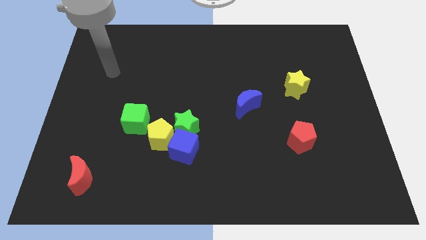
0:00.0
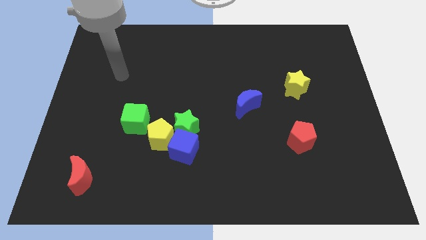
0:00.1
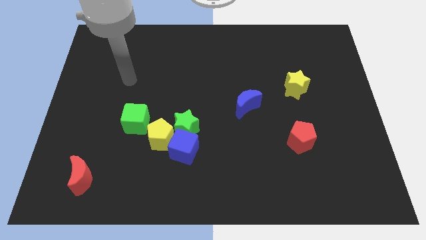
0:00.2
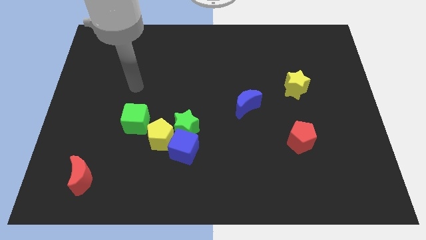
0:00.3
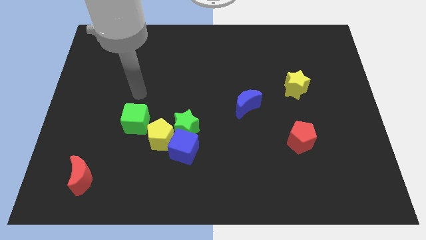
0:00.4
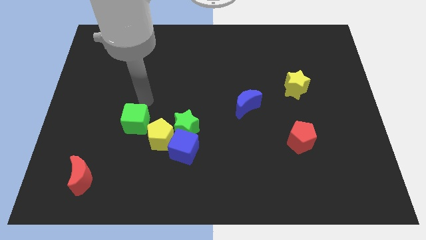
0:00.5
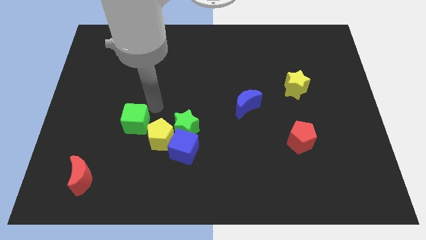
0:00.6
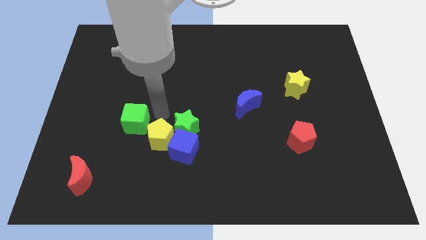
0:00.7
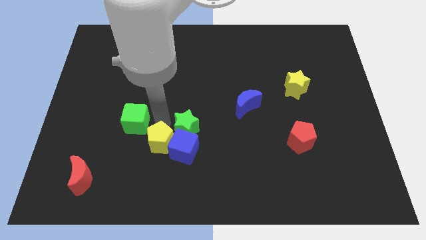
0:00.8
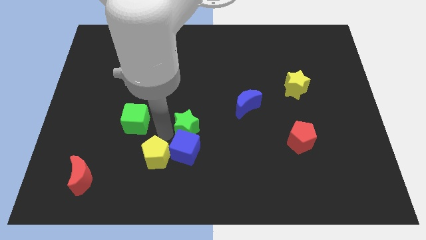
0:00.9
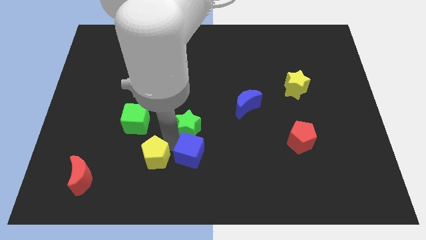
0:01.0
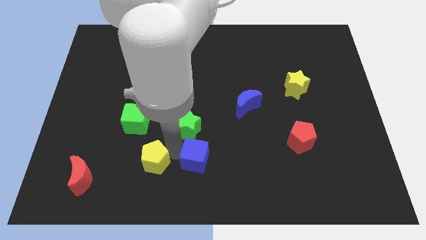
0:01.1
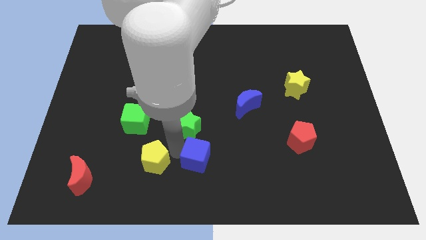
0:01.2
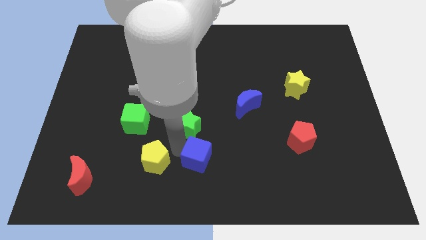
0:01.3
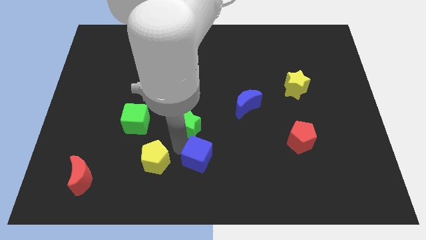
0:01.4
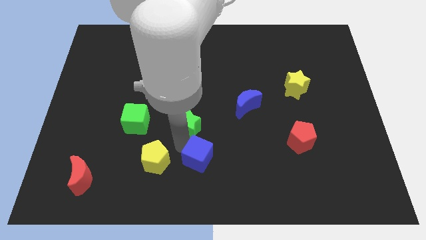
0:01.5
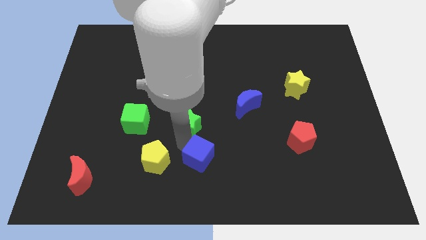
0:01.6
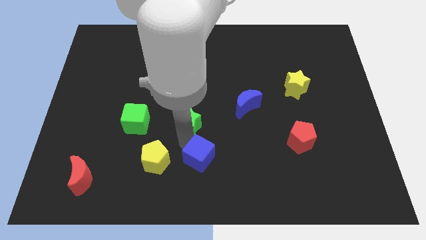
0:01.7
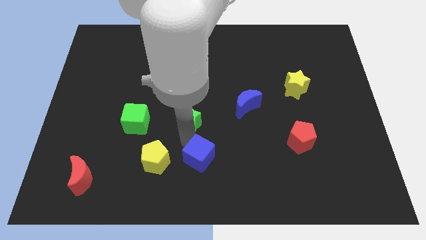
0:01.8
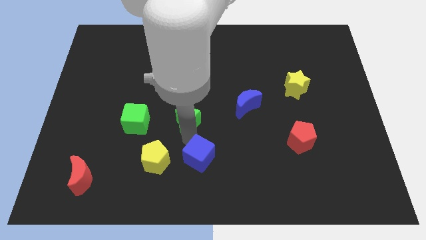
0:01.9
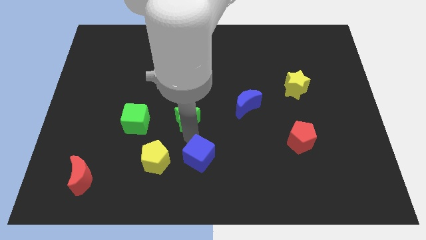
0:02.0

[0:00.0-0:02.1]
separate the green star from the blue cube and yellow pentagon

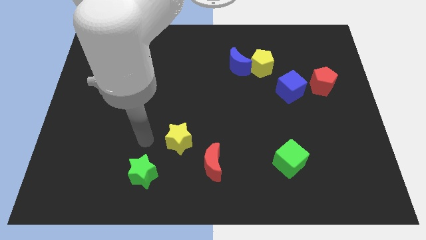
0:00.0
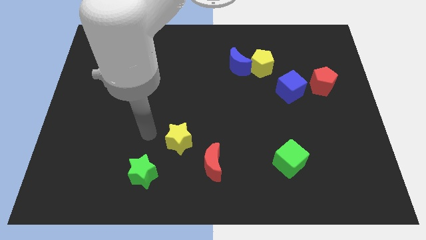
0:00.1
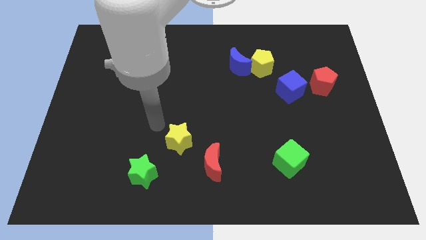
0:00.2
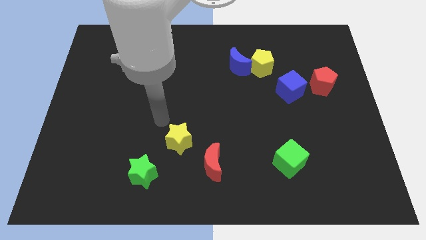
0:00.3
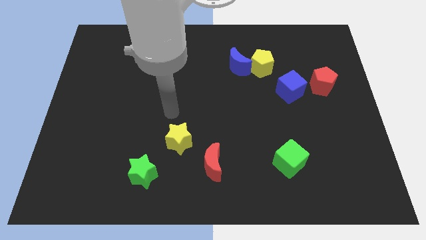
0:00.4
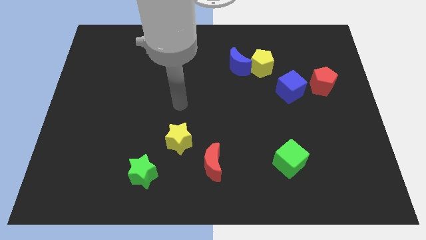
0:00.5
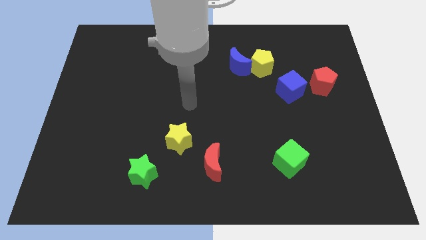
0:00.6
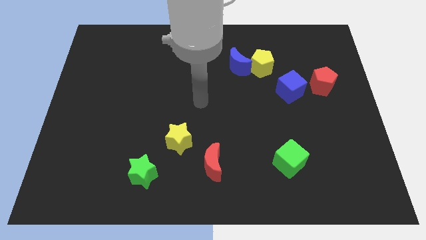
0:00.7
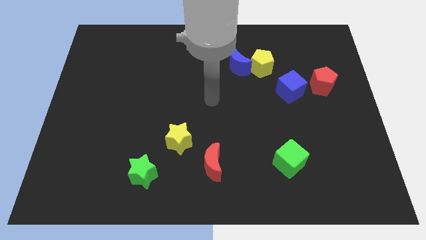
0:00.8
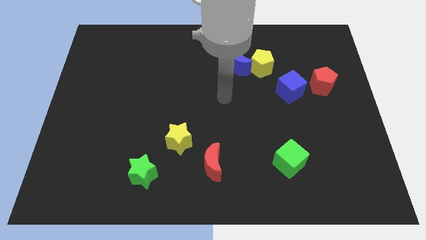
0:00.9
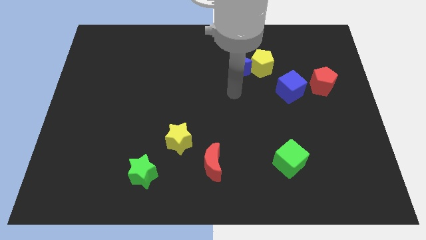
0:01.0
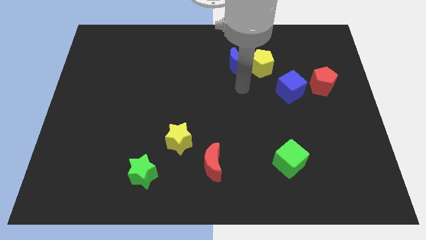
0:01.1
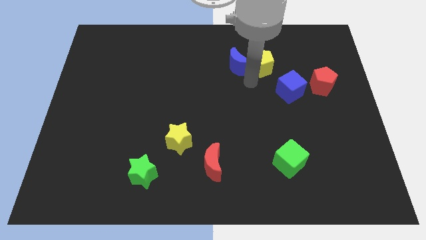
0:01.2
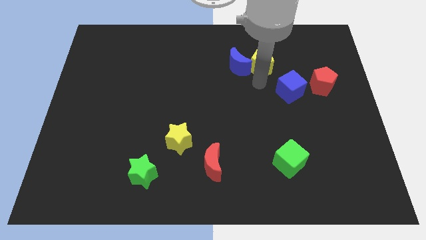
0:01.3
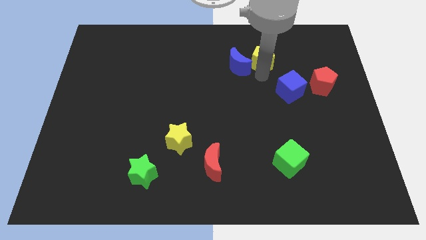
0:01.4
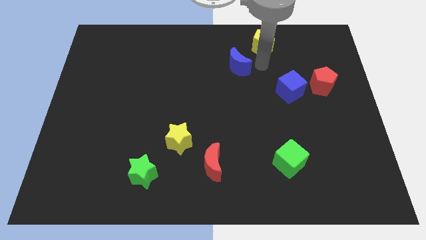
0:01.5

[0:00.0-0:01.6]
pull the blue moon apart from the yellow pentagon

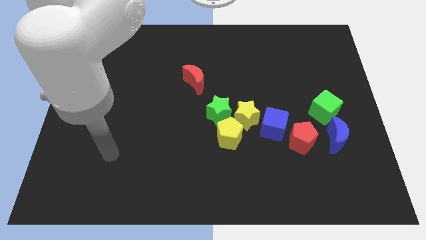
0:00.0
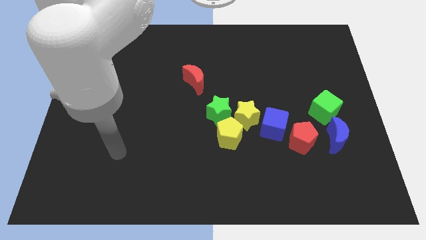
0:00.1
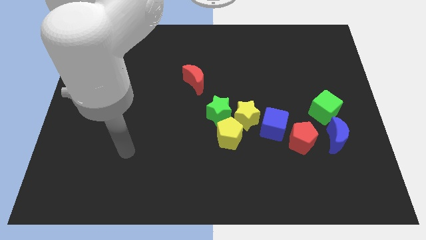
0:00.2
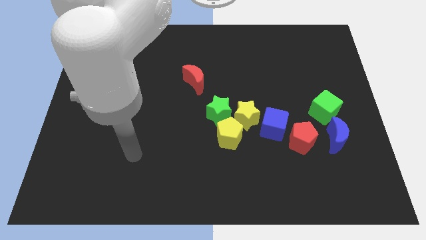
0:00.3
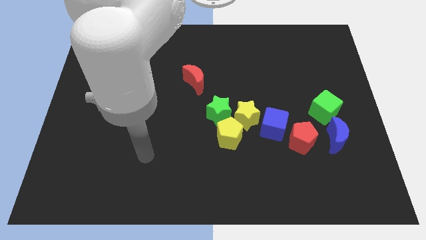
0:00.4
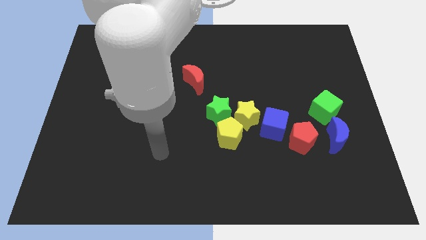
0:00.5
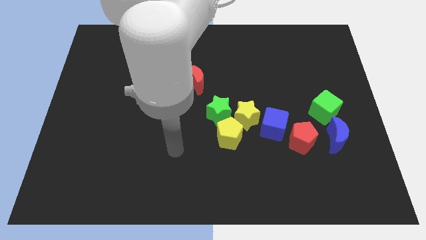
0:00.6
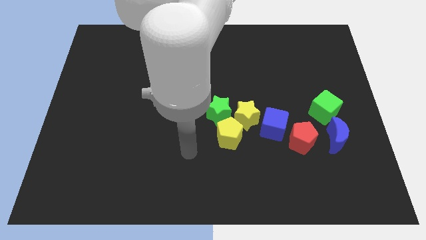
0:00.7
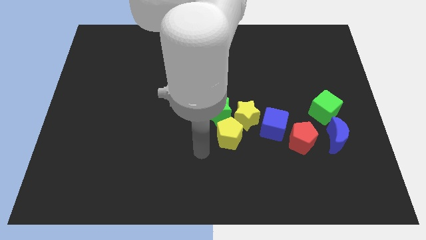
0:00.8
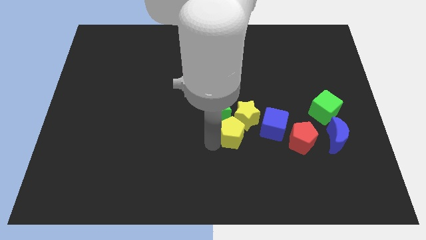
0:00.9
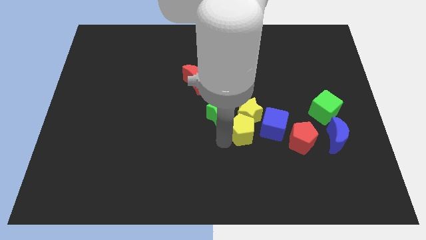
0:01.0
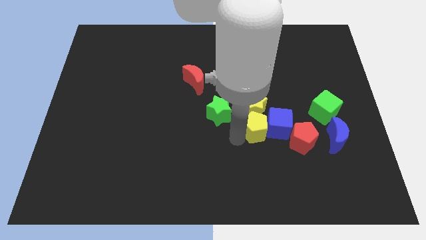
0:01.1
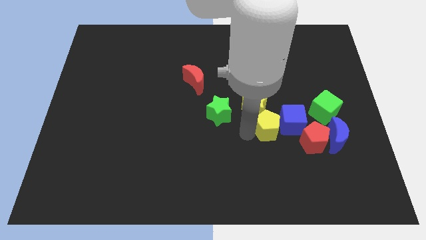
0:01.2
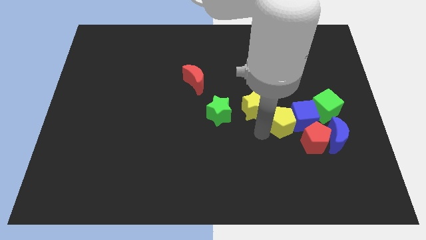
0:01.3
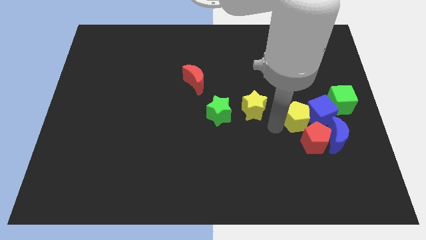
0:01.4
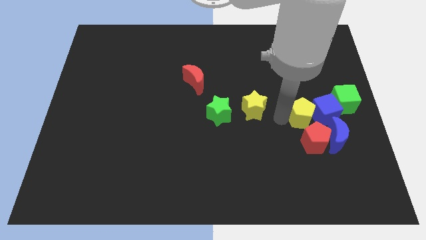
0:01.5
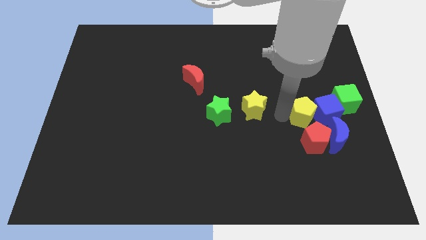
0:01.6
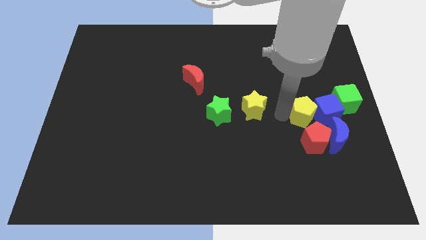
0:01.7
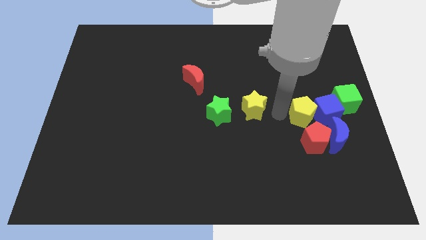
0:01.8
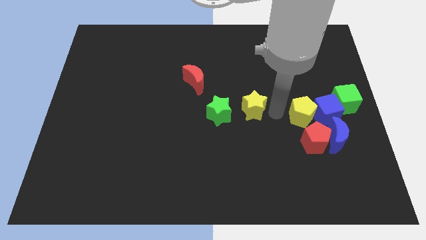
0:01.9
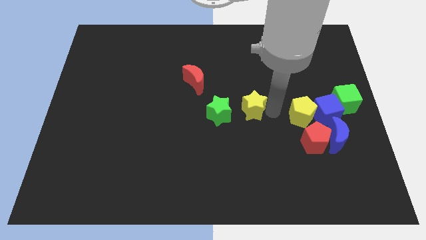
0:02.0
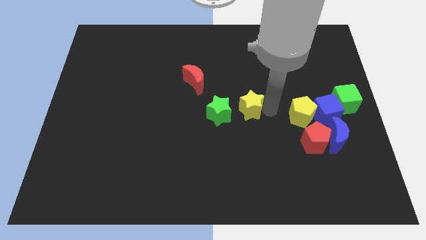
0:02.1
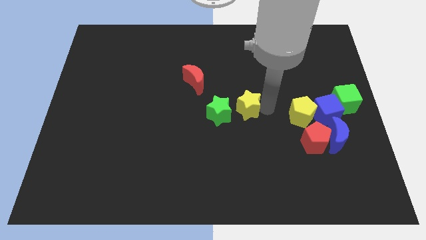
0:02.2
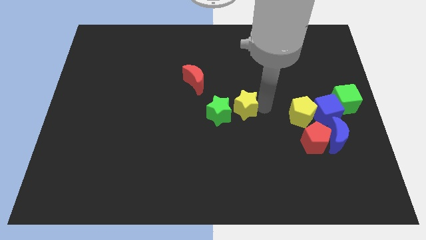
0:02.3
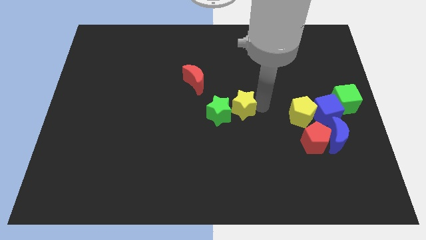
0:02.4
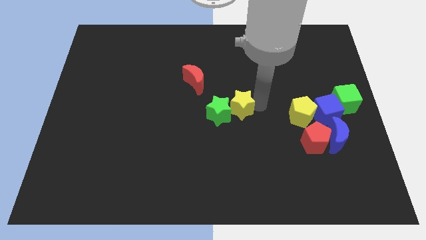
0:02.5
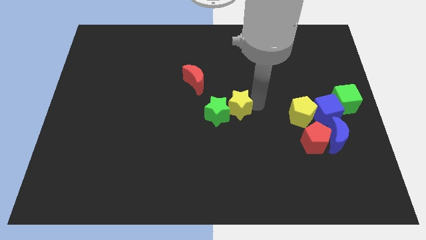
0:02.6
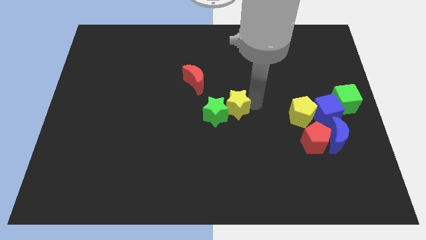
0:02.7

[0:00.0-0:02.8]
separate the yellow star from the yellow pentagon, green star, and blue cube

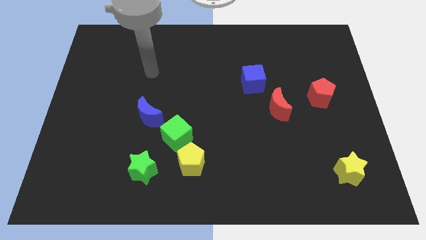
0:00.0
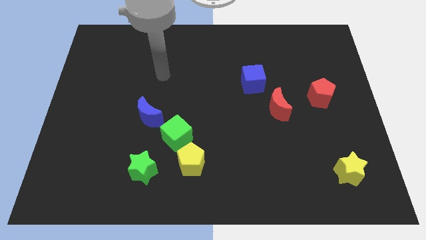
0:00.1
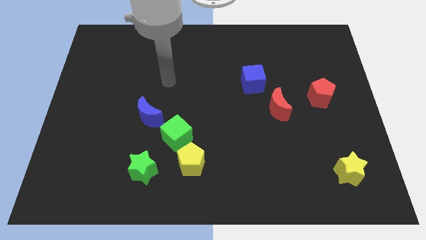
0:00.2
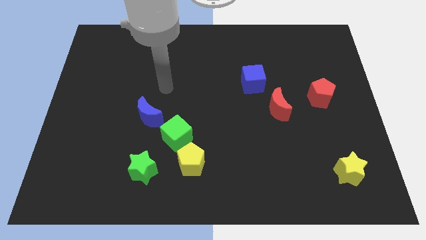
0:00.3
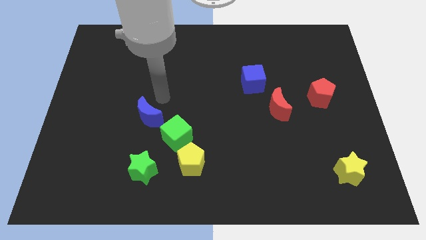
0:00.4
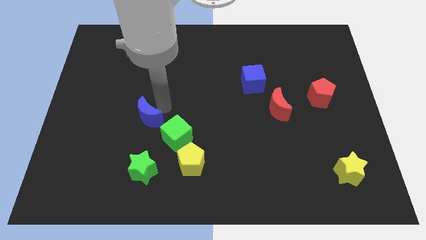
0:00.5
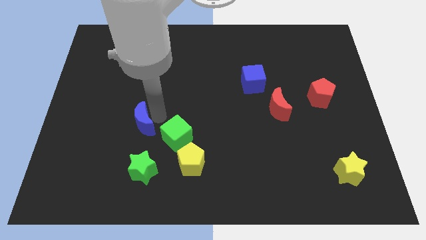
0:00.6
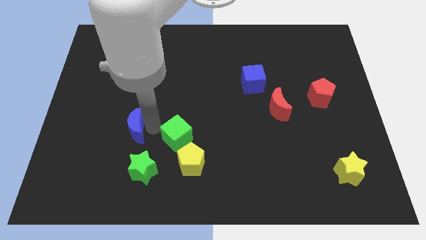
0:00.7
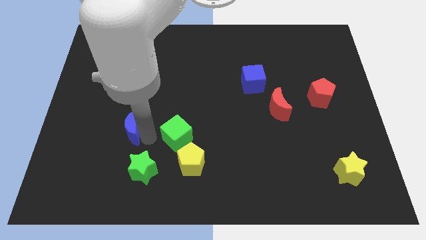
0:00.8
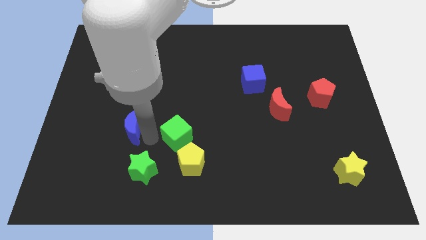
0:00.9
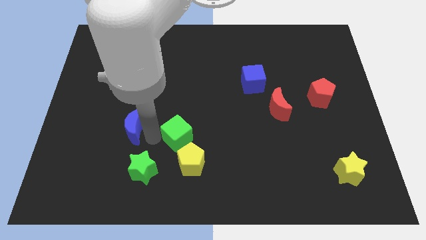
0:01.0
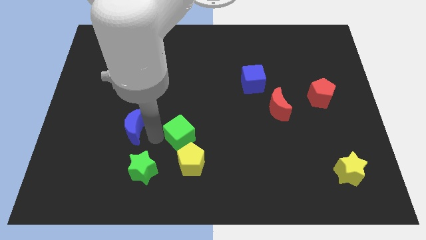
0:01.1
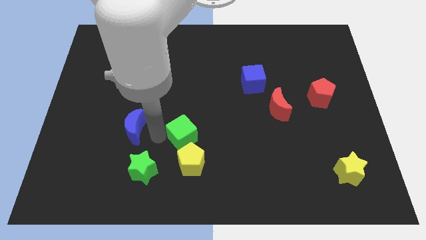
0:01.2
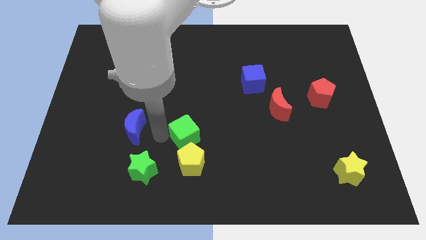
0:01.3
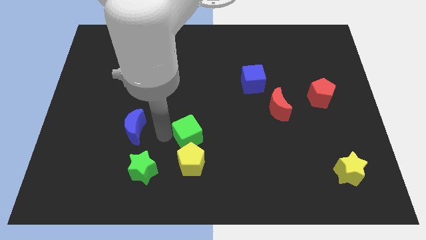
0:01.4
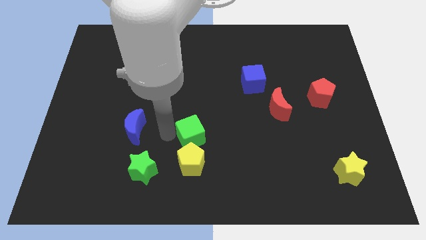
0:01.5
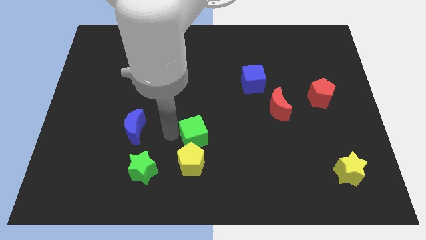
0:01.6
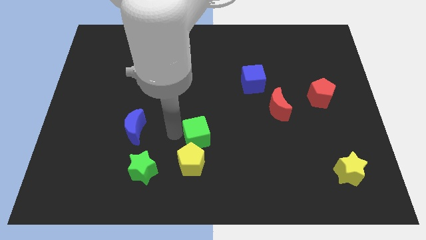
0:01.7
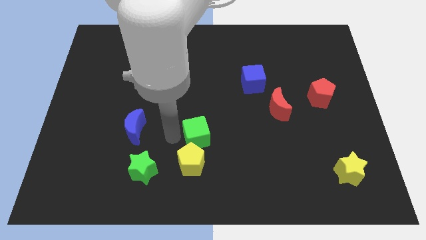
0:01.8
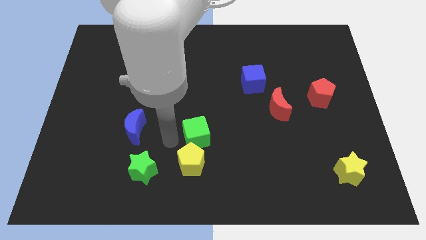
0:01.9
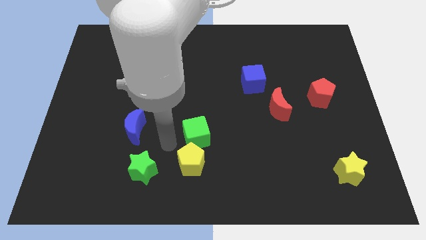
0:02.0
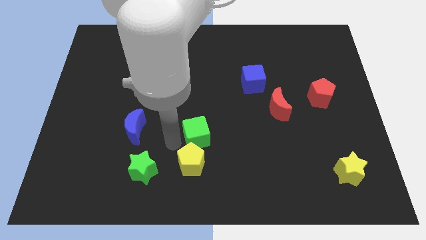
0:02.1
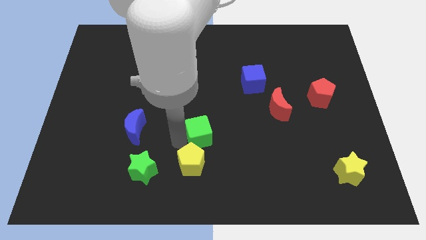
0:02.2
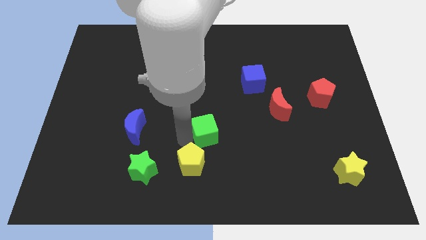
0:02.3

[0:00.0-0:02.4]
separate the green cube from the yellow pentagon and blue moon

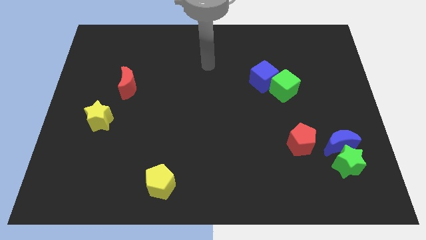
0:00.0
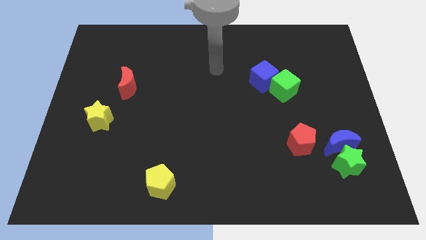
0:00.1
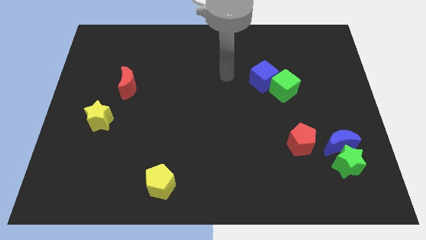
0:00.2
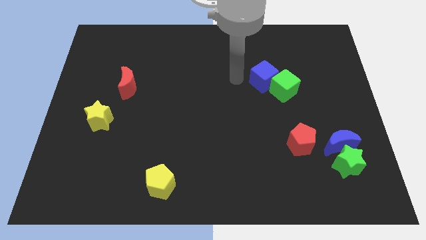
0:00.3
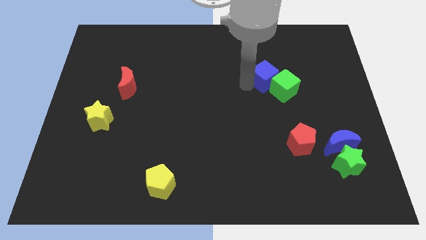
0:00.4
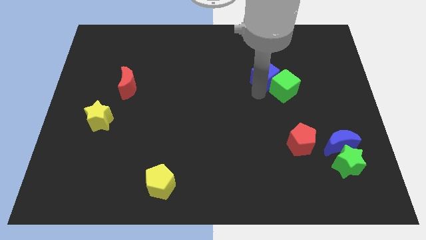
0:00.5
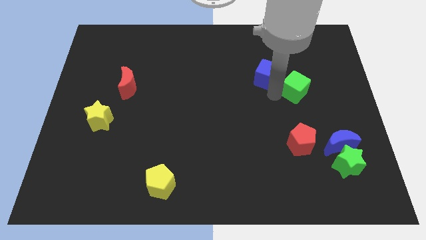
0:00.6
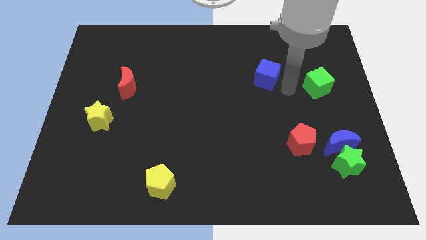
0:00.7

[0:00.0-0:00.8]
move the blue cube away from the green cube
